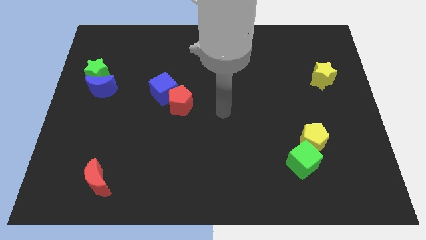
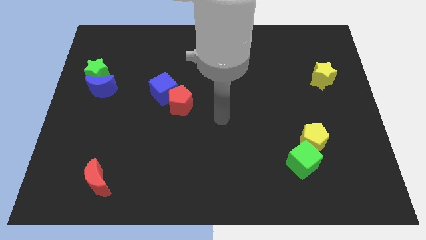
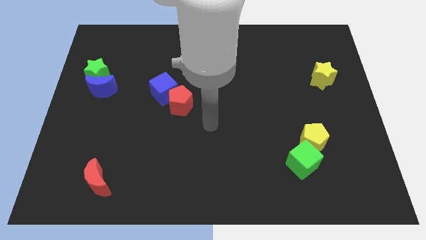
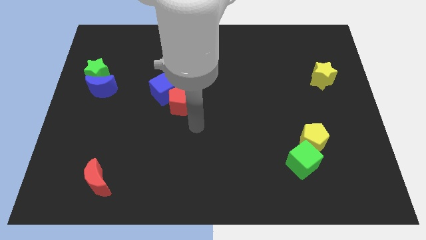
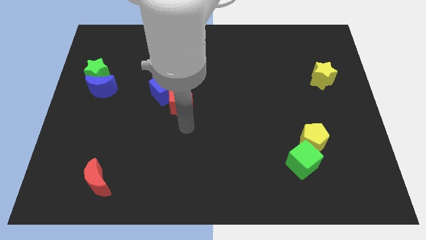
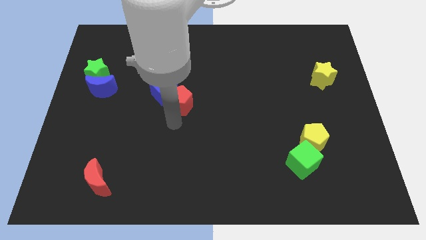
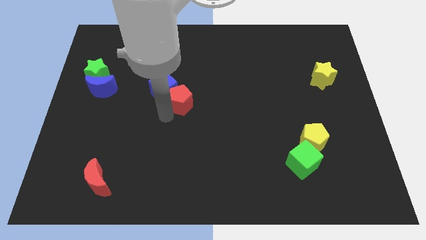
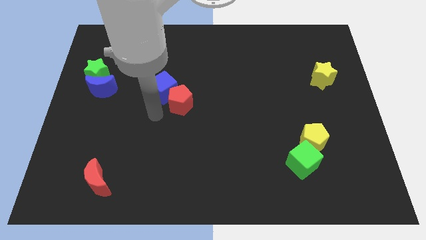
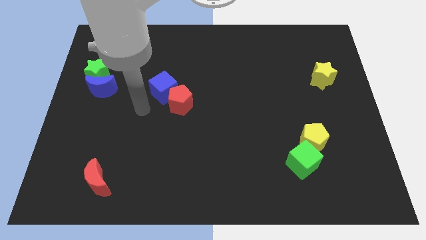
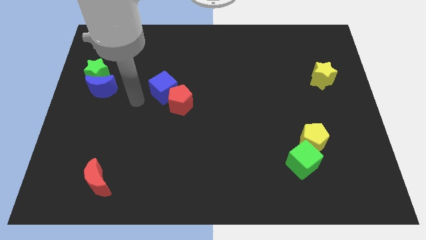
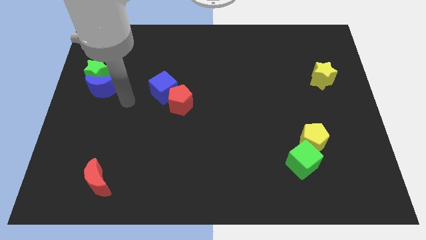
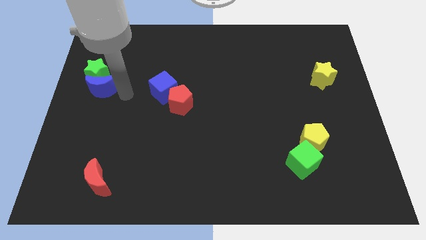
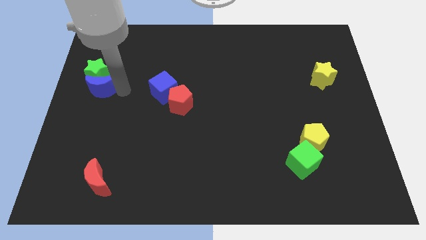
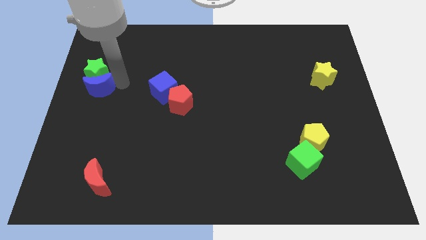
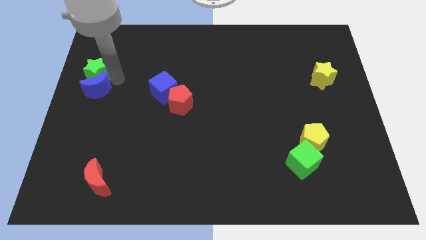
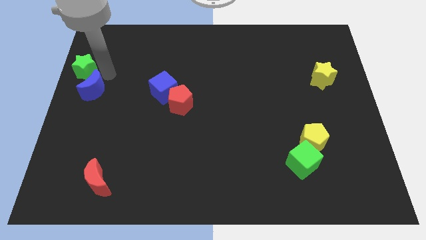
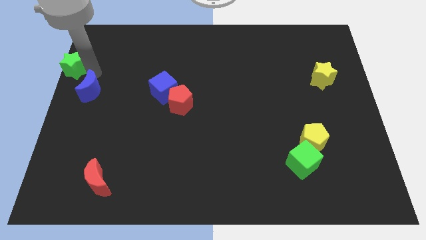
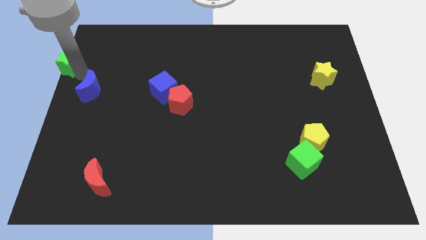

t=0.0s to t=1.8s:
move the blue moon away from the green star

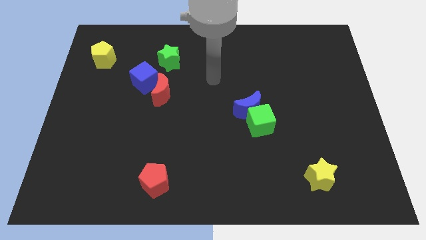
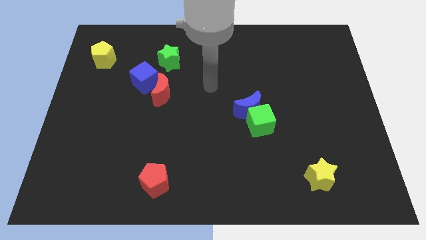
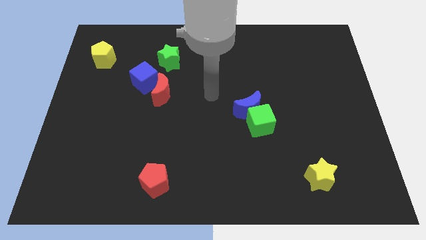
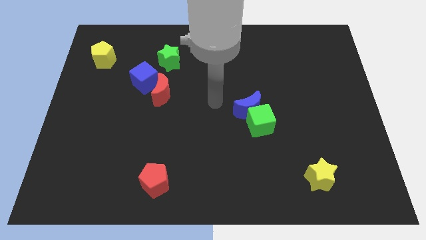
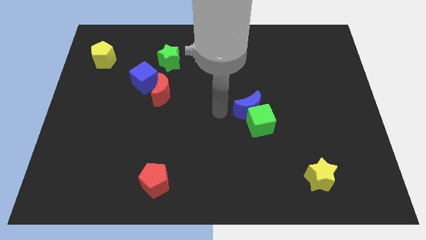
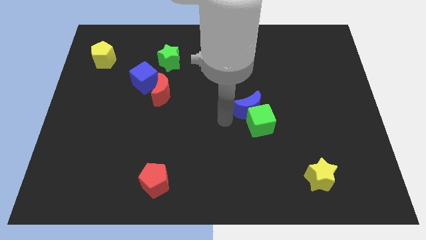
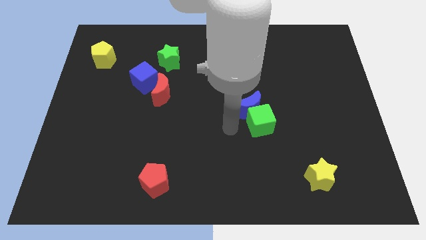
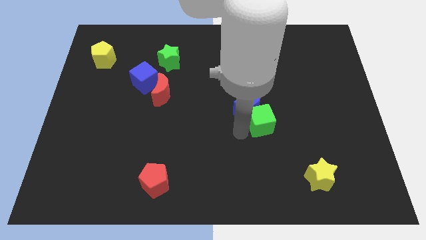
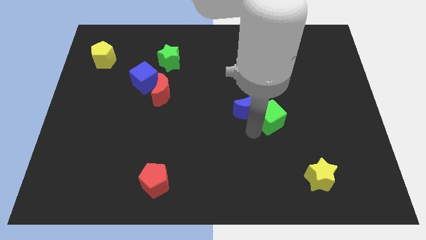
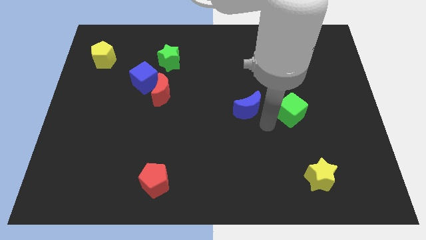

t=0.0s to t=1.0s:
separate the blue moon from the green cube

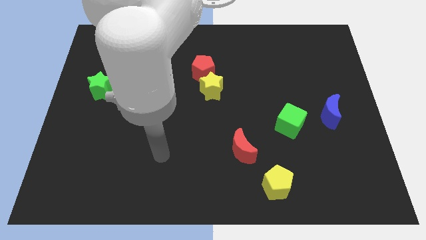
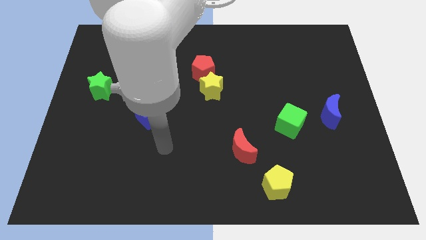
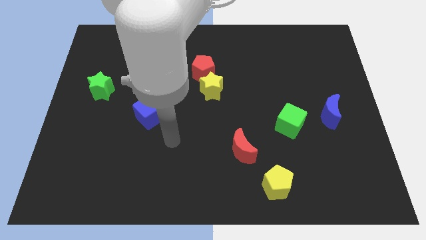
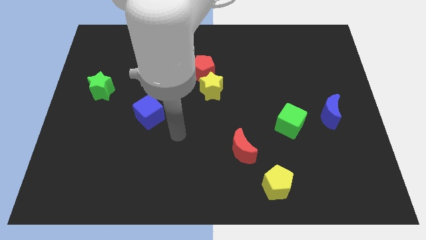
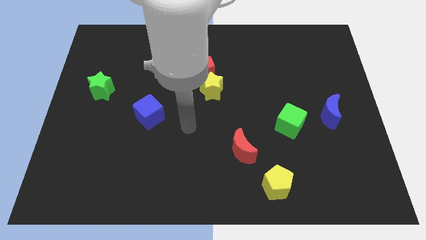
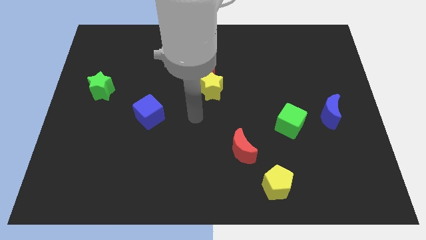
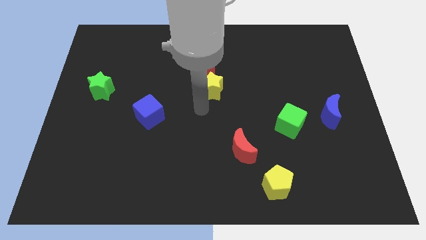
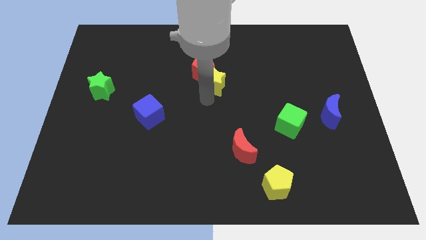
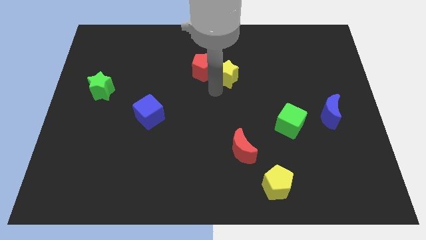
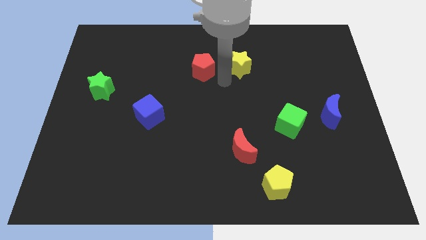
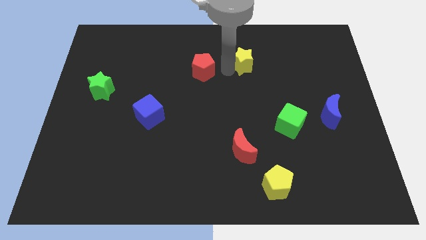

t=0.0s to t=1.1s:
move the red pentagon away from the yellow star

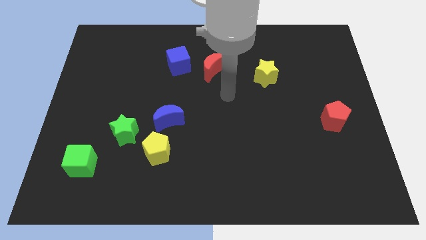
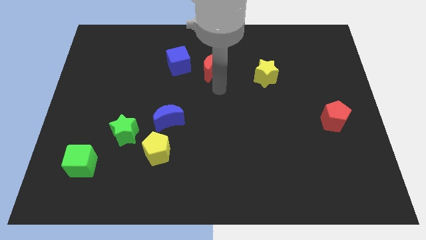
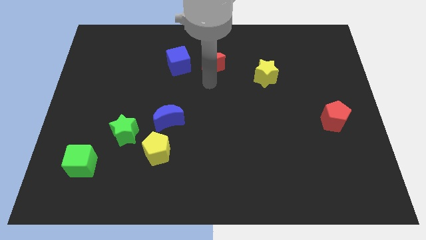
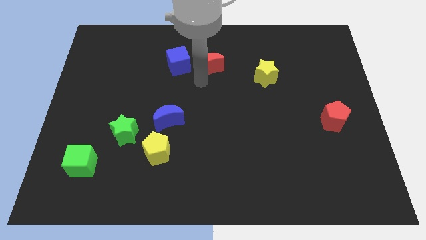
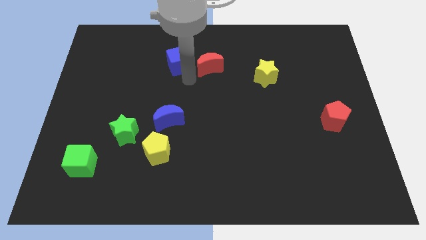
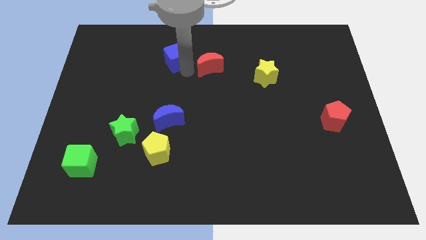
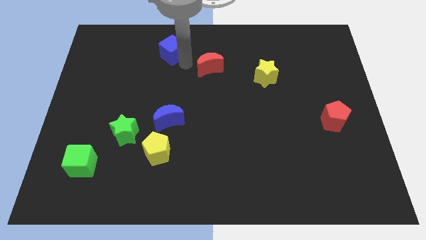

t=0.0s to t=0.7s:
pull the red moon apart from the blue cube

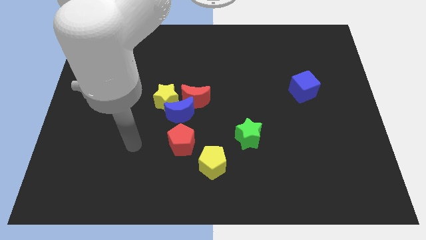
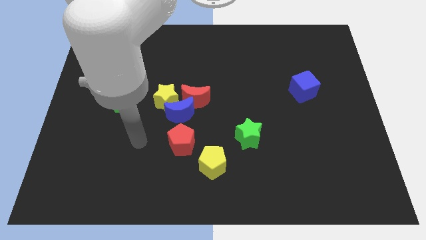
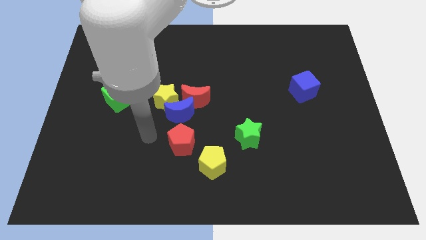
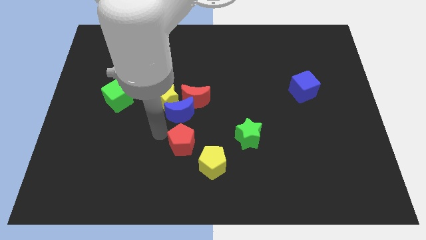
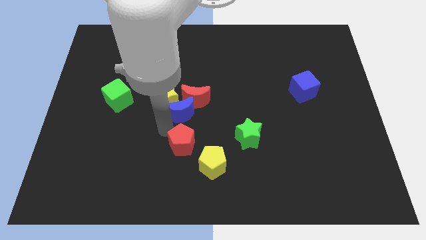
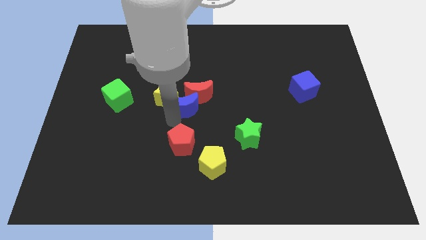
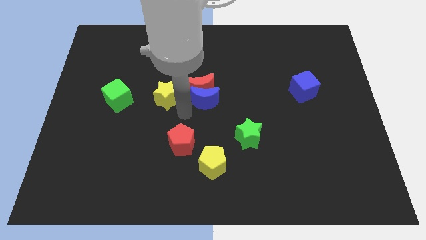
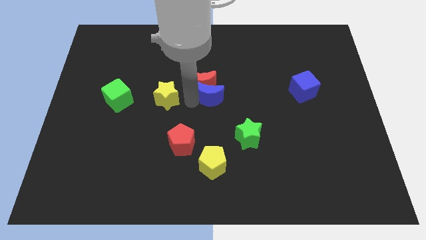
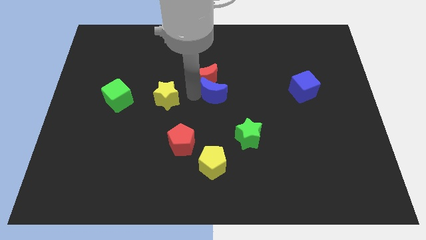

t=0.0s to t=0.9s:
move the yellow star away from the blue moon and red moon

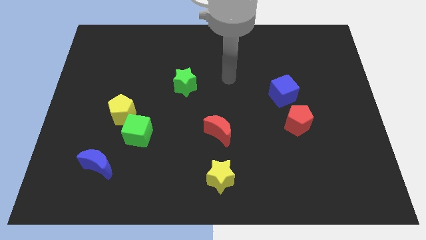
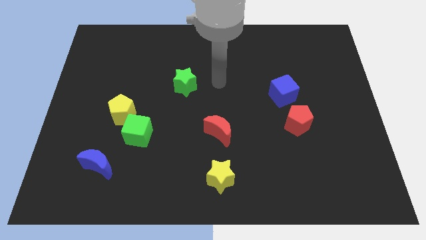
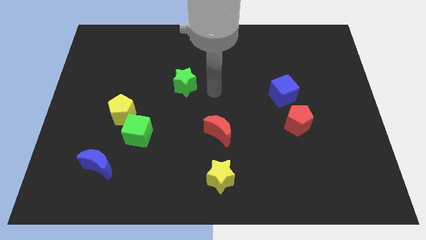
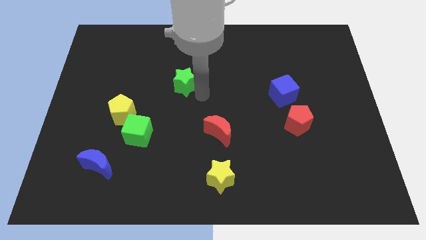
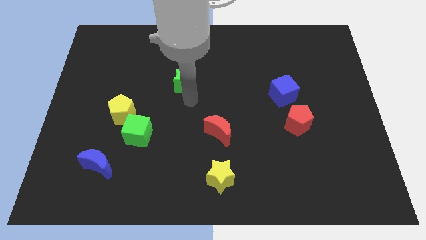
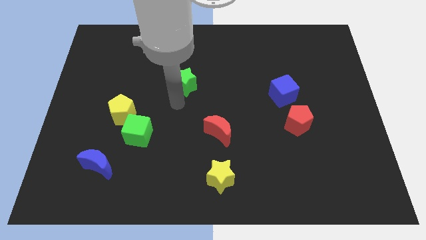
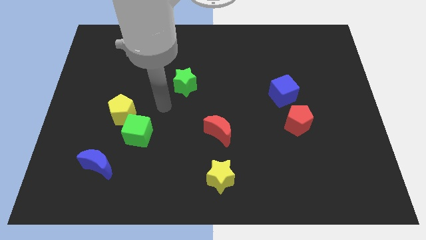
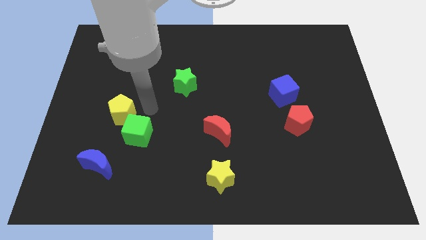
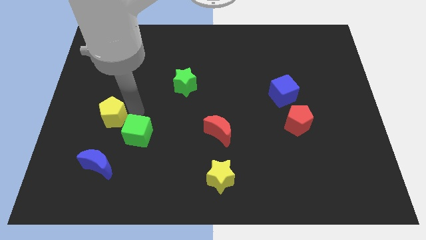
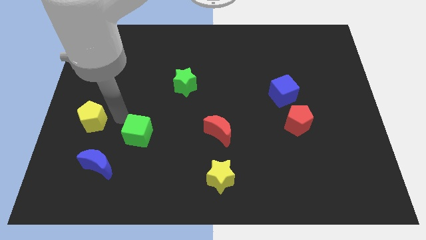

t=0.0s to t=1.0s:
pull the green cube apart from the yellow pentagon

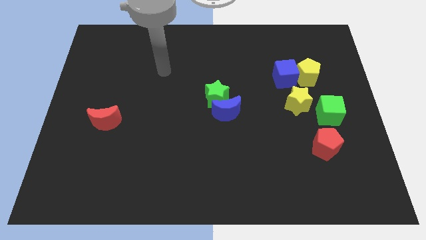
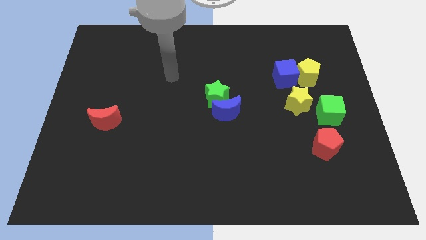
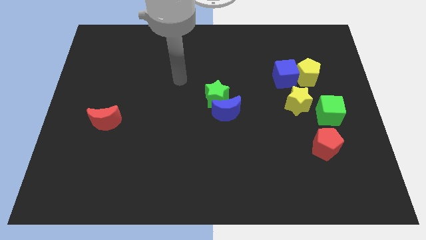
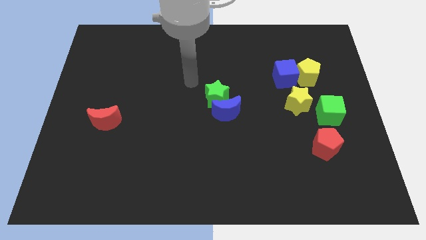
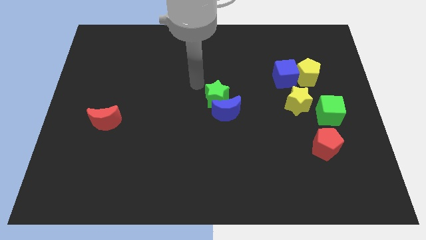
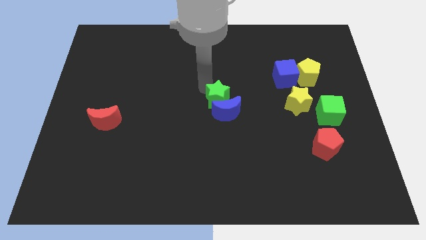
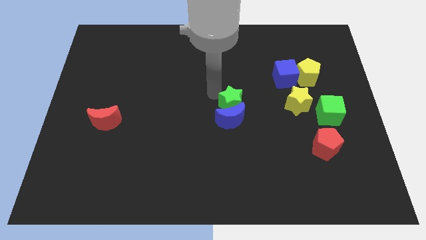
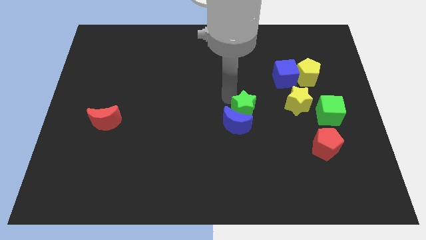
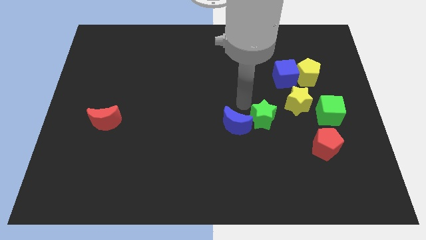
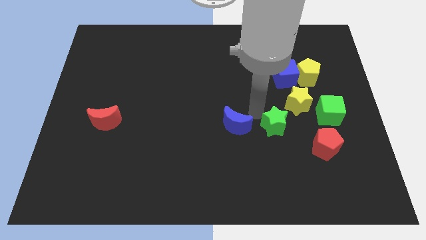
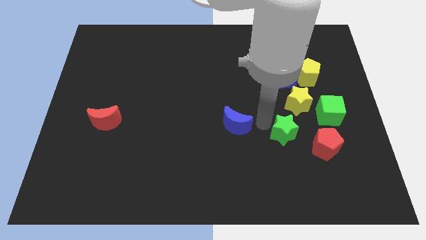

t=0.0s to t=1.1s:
separate the blue moon from the green star

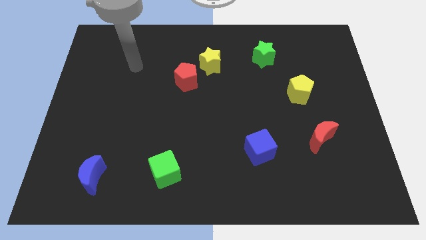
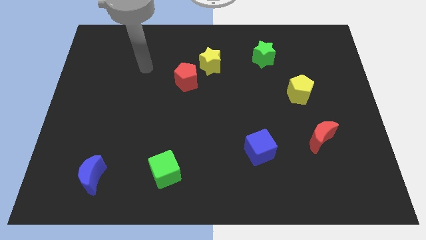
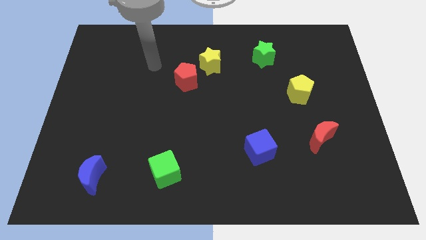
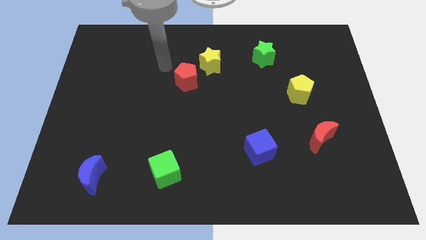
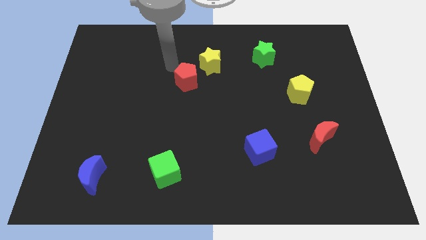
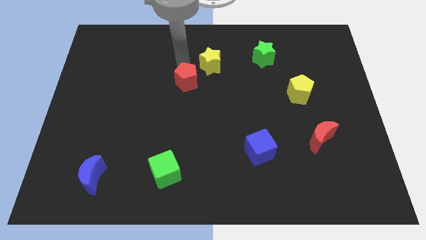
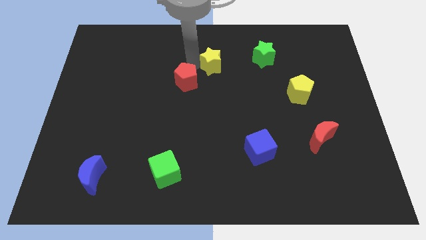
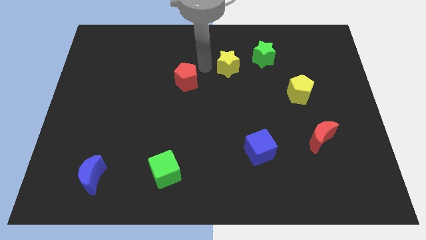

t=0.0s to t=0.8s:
pull the red pentagon apart from the yellow star

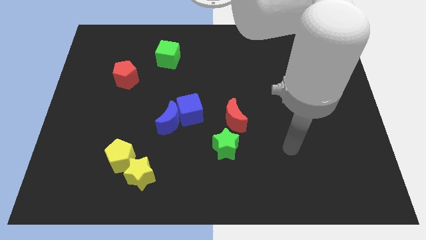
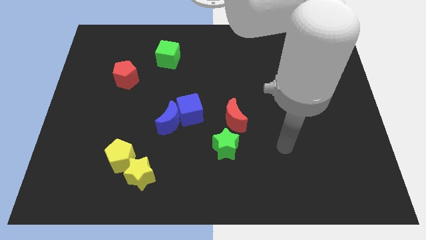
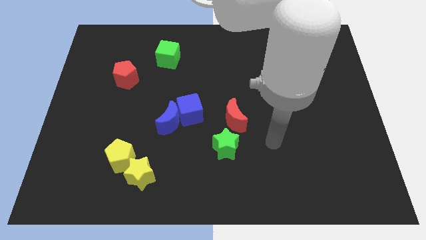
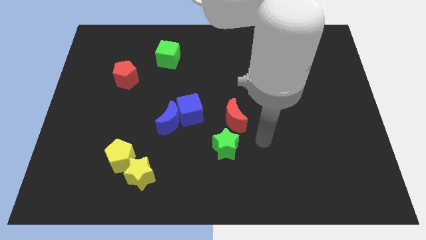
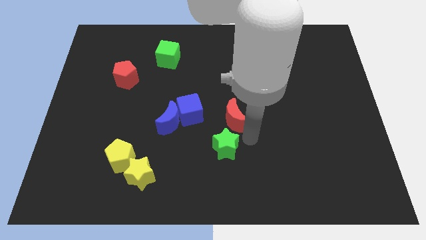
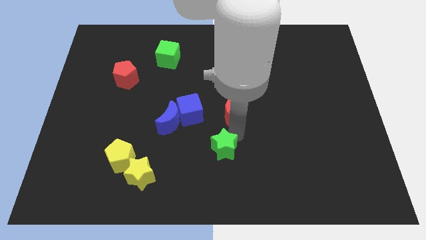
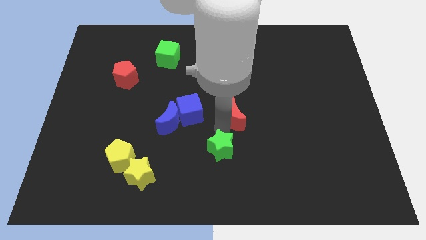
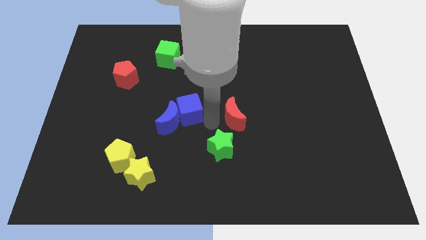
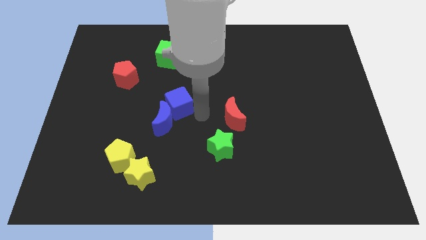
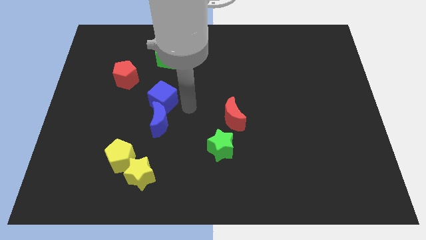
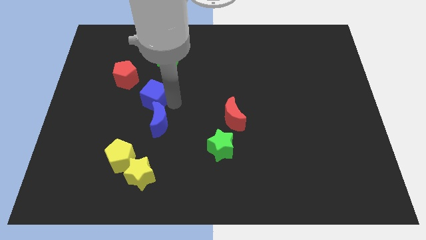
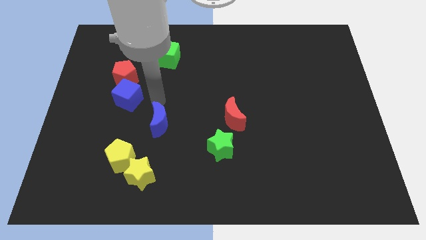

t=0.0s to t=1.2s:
separate the blue moon from the blue cube
